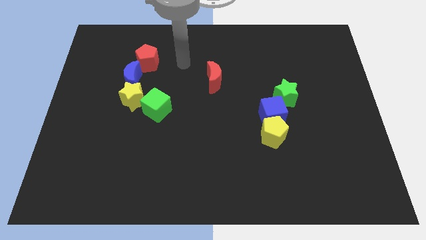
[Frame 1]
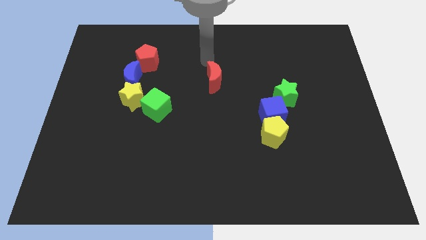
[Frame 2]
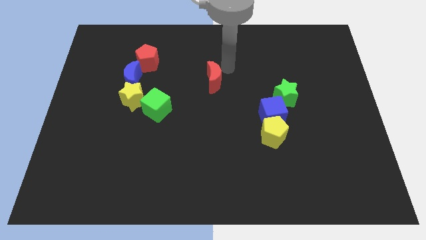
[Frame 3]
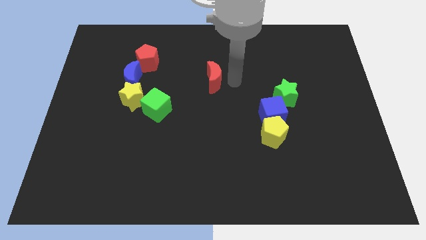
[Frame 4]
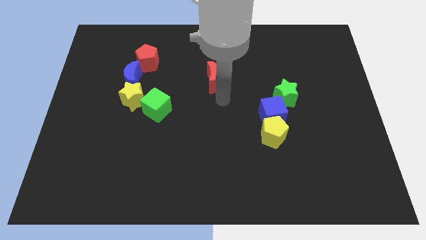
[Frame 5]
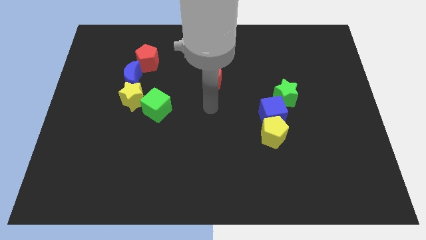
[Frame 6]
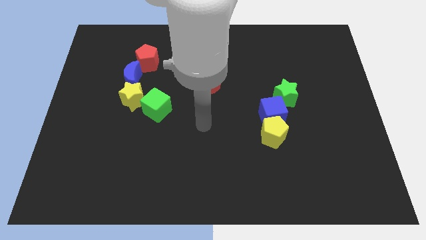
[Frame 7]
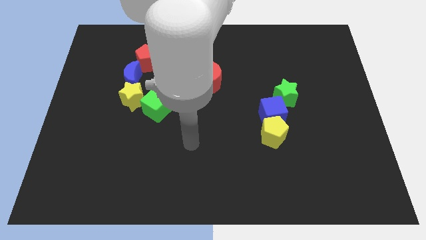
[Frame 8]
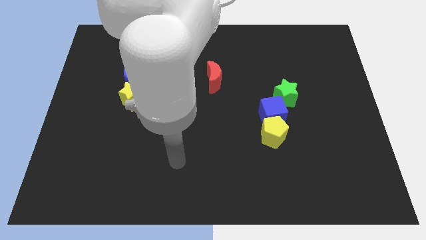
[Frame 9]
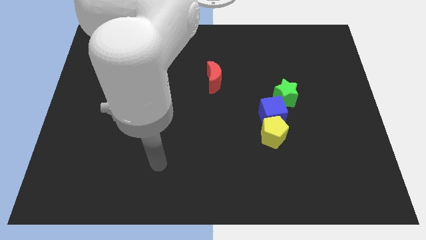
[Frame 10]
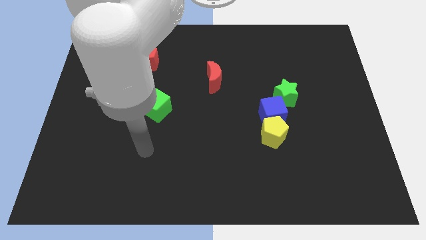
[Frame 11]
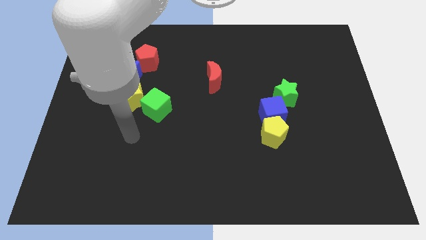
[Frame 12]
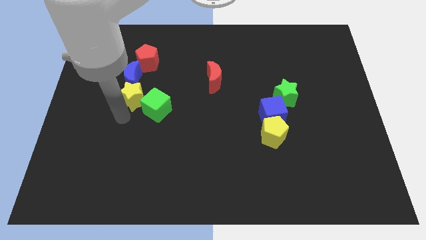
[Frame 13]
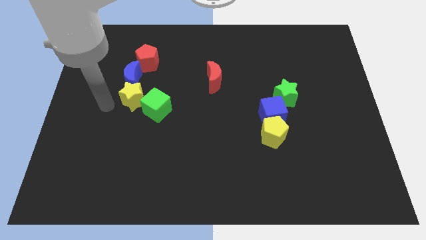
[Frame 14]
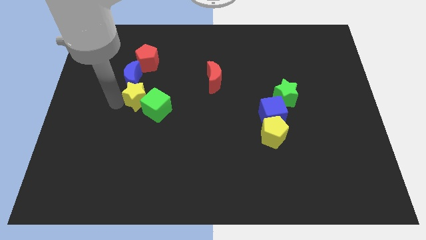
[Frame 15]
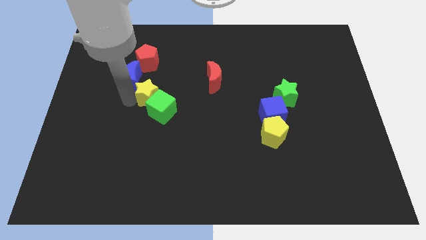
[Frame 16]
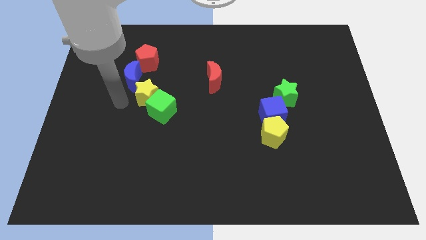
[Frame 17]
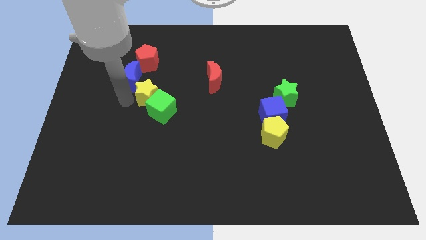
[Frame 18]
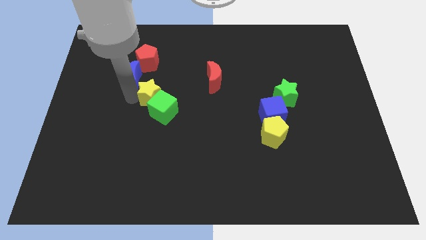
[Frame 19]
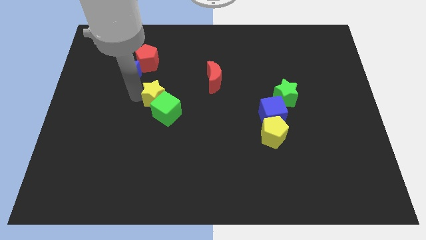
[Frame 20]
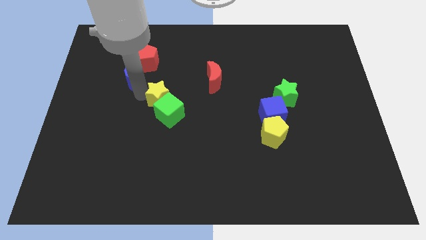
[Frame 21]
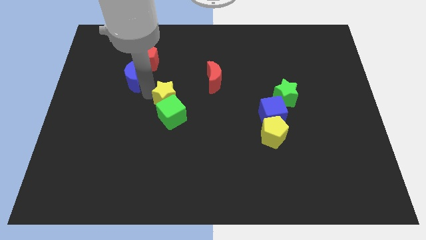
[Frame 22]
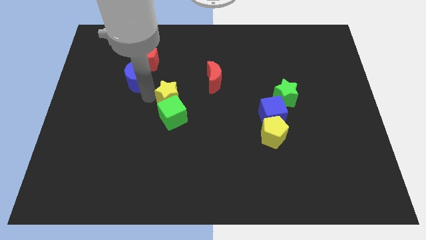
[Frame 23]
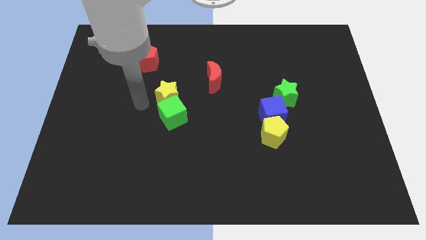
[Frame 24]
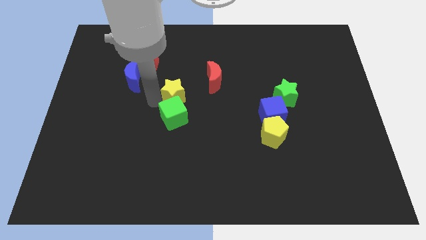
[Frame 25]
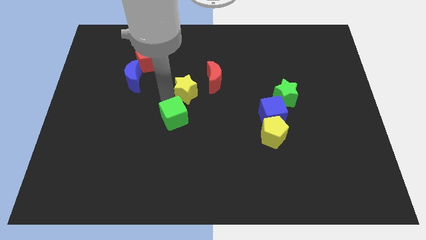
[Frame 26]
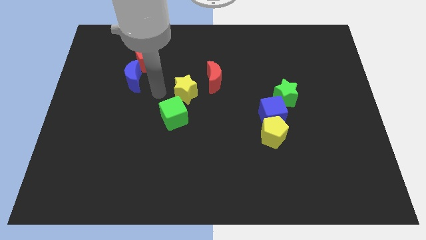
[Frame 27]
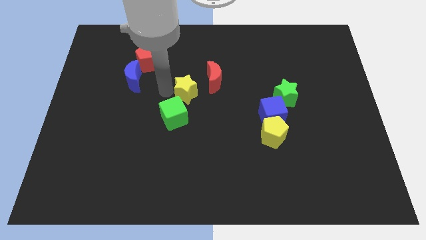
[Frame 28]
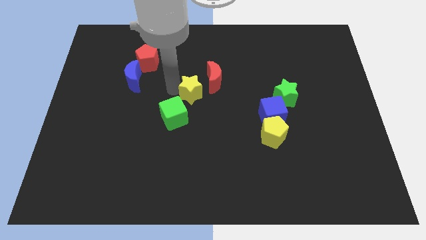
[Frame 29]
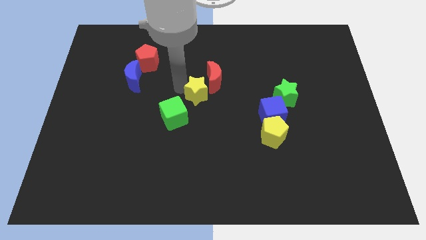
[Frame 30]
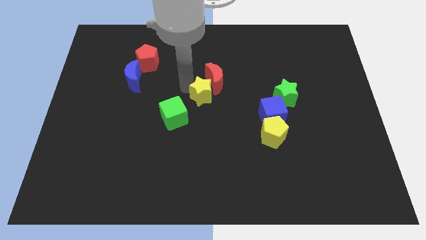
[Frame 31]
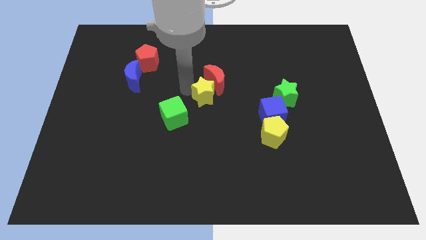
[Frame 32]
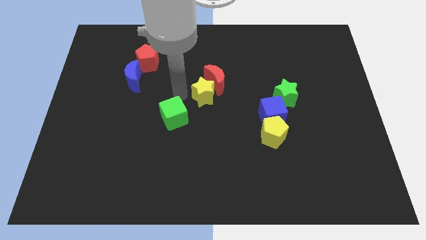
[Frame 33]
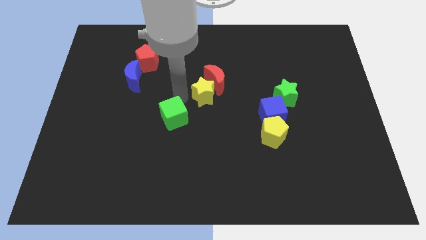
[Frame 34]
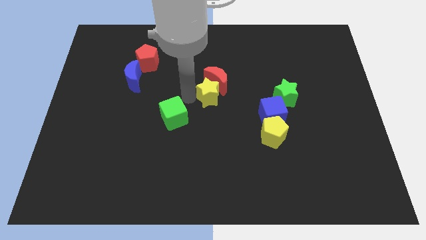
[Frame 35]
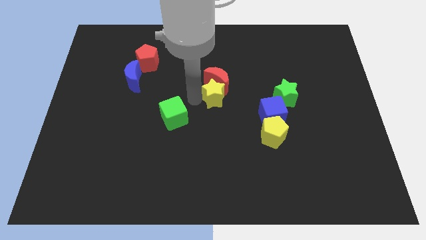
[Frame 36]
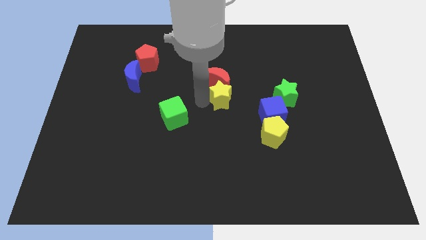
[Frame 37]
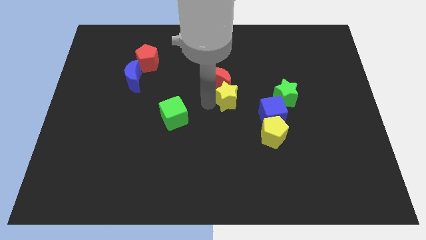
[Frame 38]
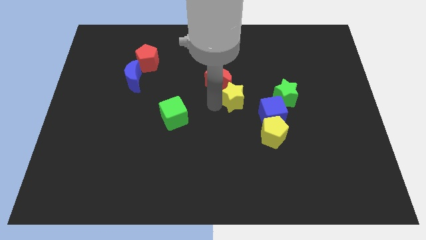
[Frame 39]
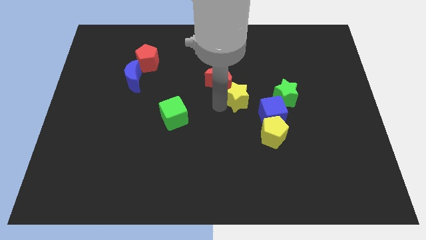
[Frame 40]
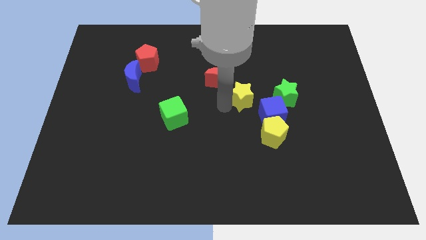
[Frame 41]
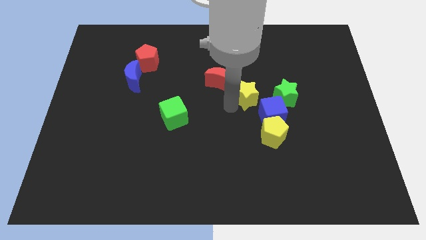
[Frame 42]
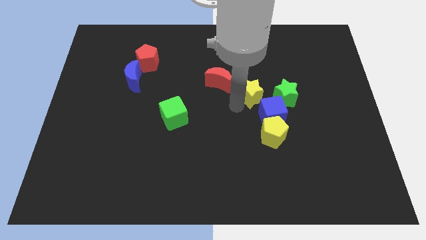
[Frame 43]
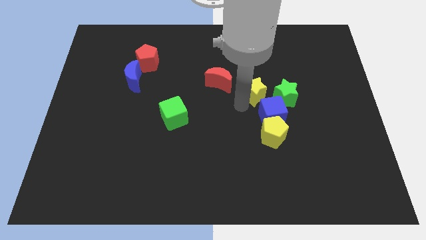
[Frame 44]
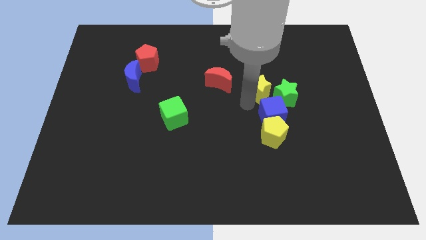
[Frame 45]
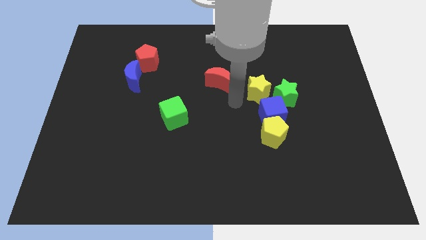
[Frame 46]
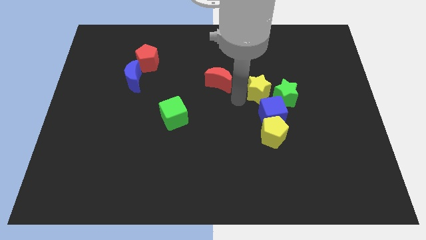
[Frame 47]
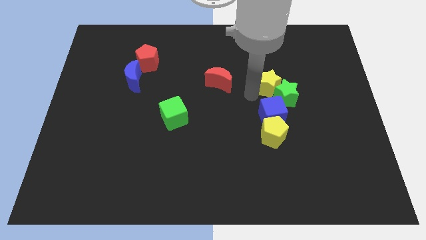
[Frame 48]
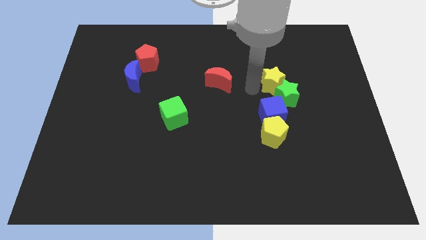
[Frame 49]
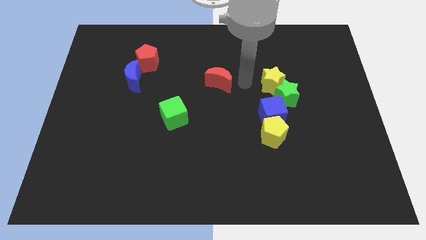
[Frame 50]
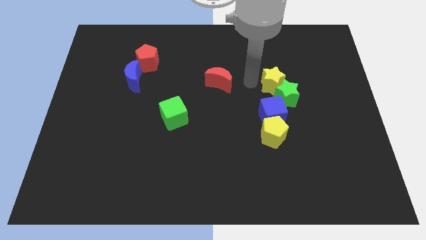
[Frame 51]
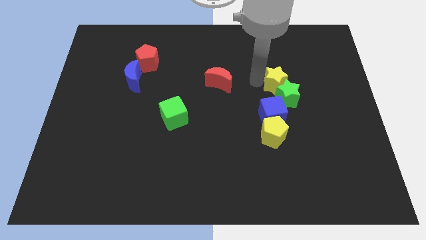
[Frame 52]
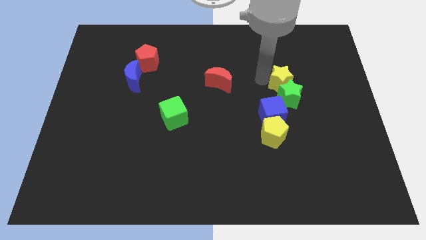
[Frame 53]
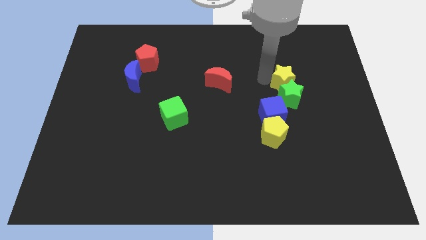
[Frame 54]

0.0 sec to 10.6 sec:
move the yellow star to the top right of the blue cube

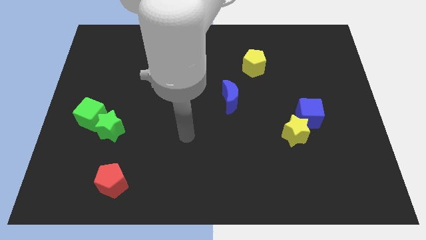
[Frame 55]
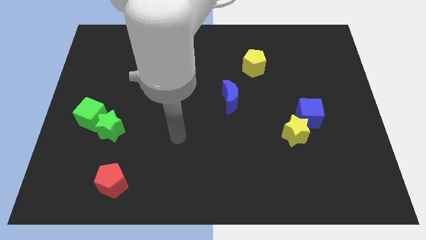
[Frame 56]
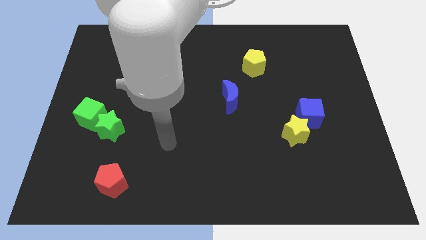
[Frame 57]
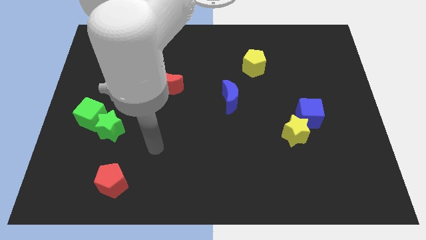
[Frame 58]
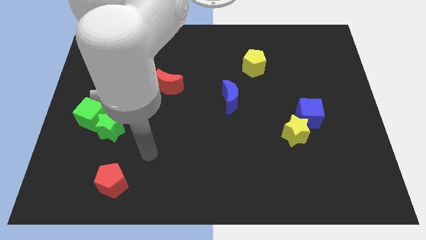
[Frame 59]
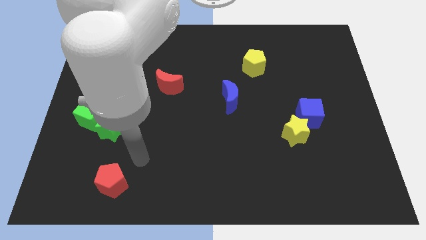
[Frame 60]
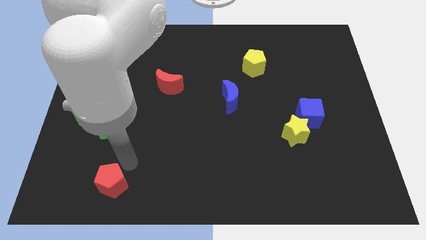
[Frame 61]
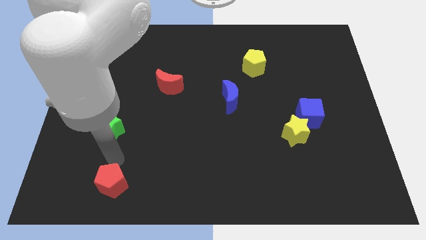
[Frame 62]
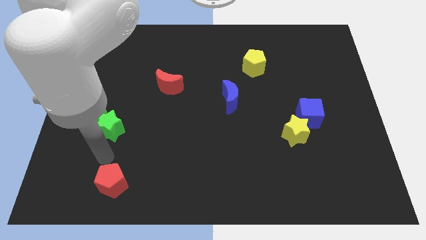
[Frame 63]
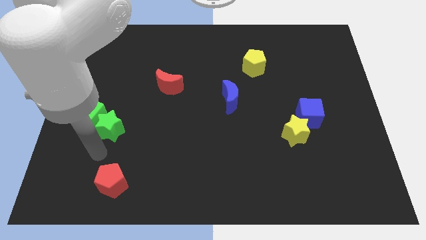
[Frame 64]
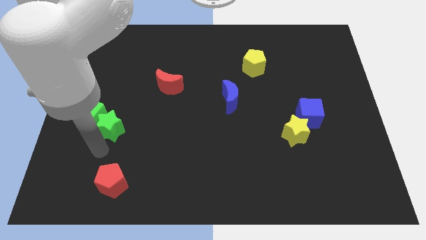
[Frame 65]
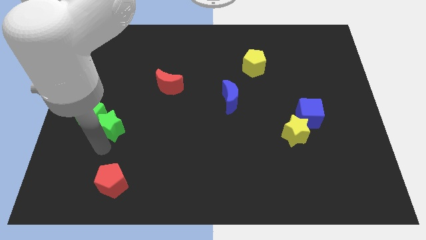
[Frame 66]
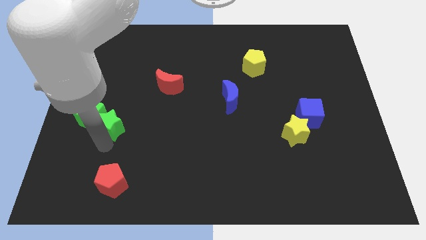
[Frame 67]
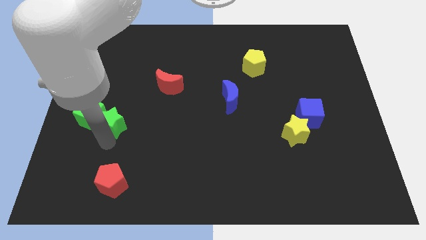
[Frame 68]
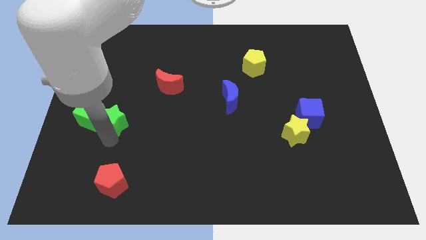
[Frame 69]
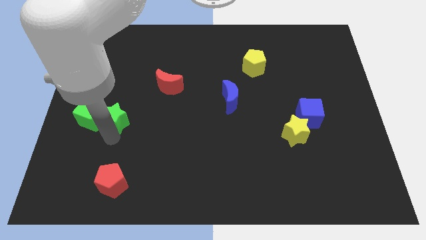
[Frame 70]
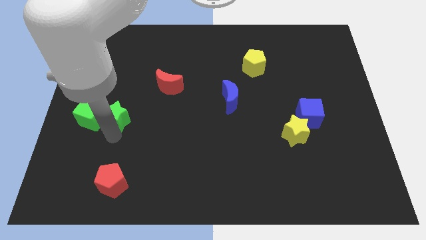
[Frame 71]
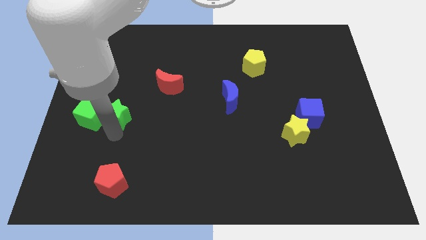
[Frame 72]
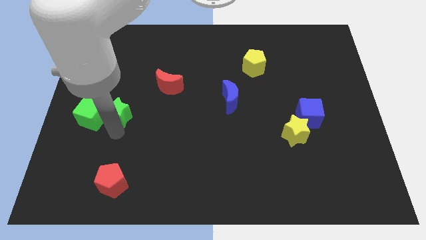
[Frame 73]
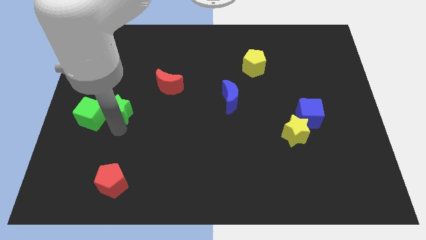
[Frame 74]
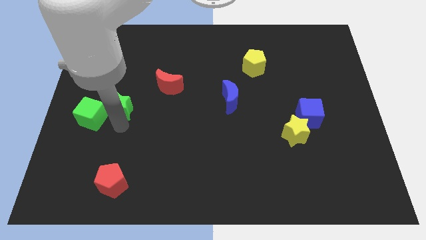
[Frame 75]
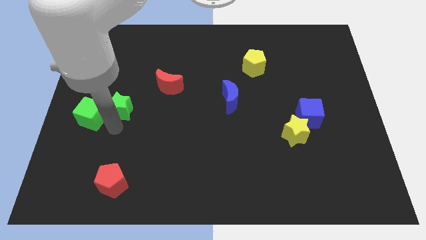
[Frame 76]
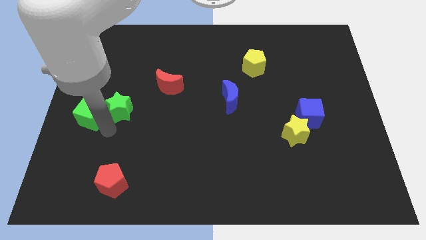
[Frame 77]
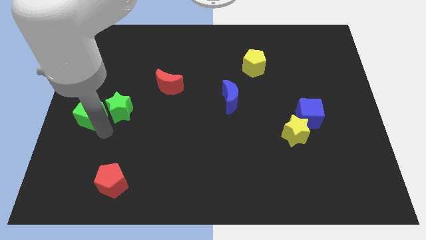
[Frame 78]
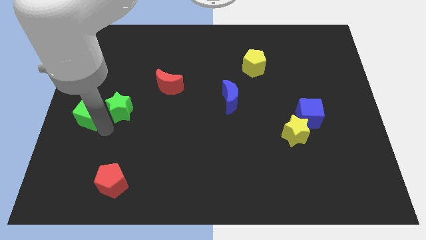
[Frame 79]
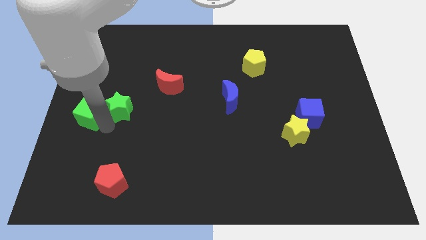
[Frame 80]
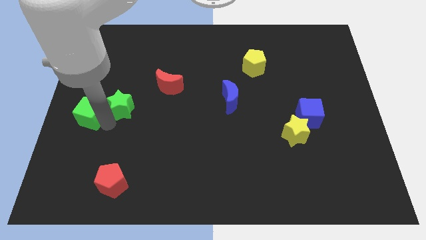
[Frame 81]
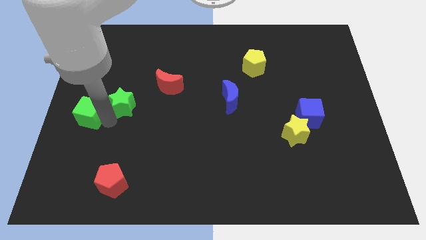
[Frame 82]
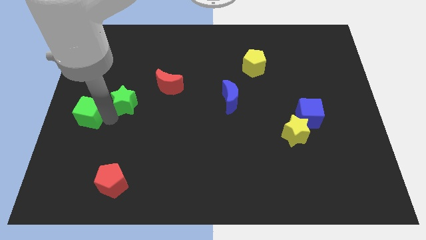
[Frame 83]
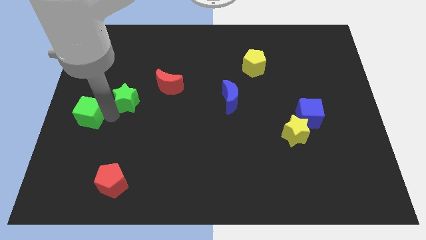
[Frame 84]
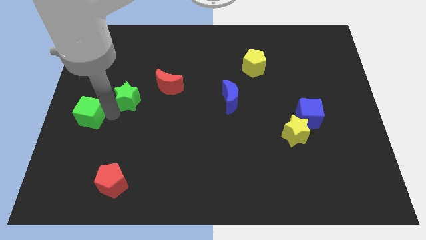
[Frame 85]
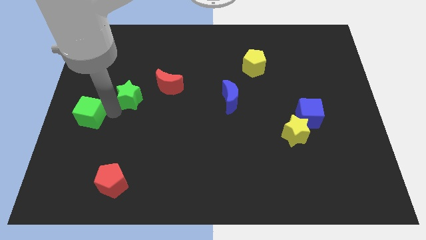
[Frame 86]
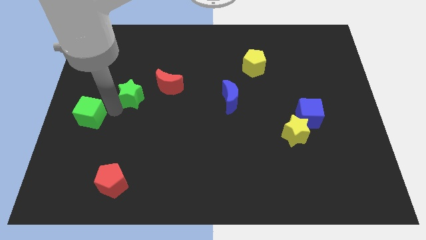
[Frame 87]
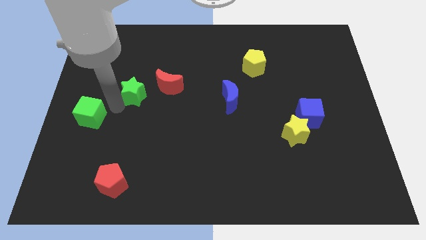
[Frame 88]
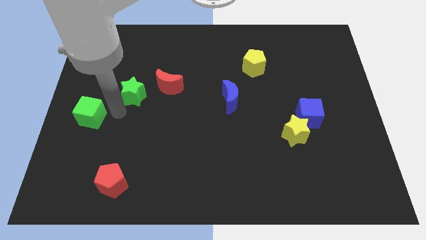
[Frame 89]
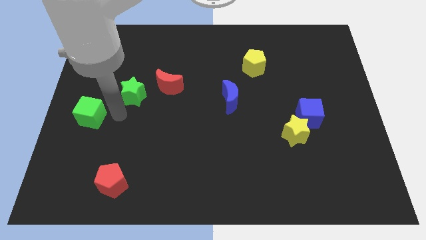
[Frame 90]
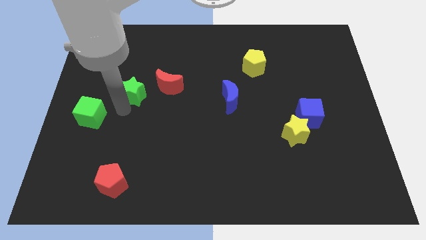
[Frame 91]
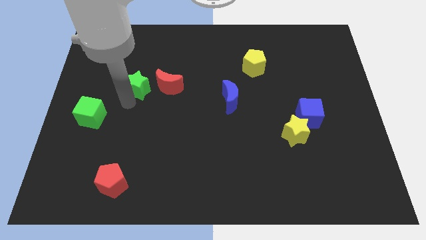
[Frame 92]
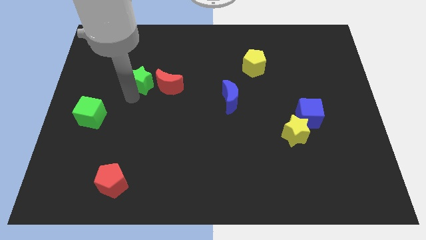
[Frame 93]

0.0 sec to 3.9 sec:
move the green star diagonally up and to the left of the red moon
